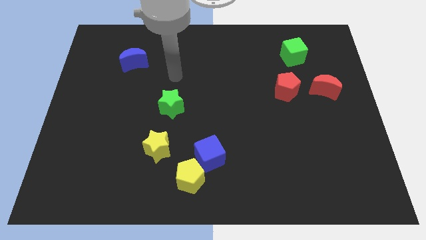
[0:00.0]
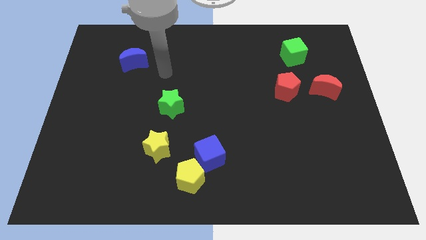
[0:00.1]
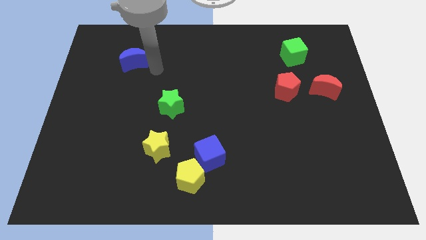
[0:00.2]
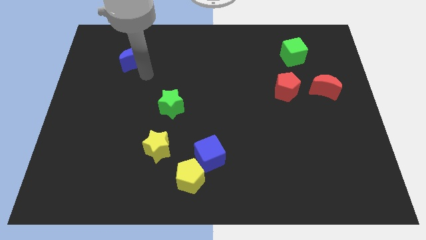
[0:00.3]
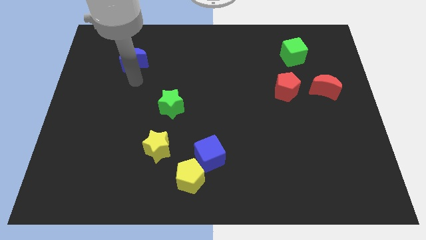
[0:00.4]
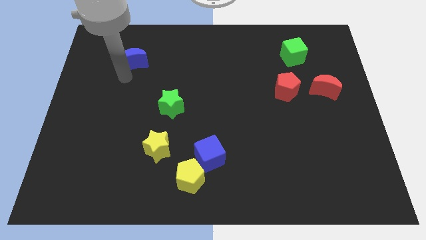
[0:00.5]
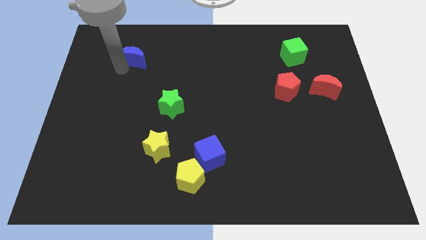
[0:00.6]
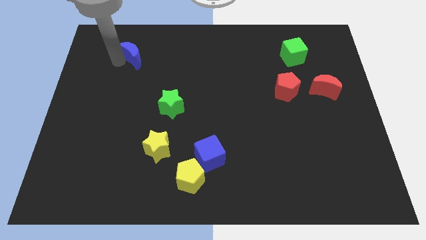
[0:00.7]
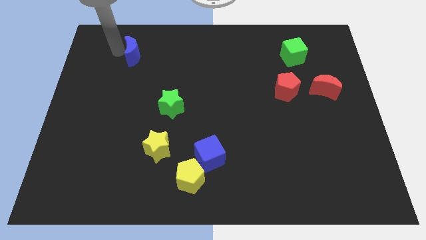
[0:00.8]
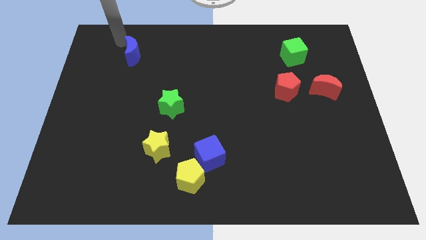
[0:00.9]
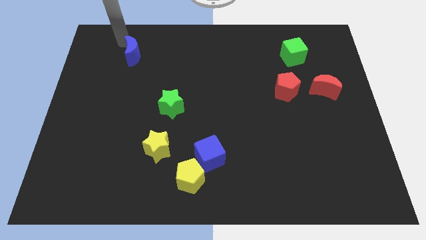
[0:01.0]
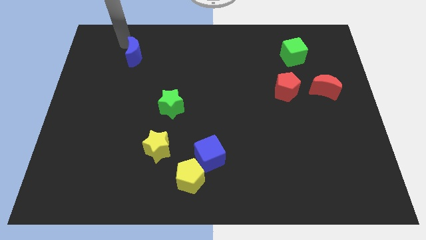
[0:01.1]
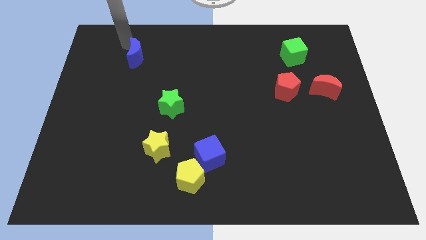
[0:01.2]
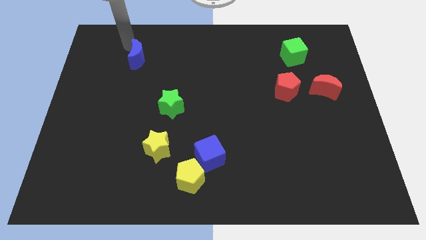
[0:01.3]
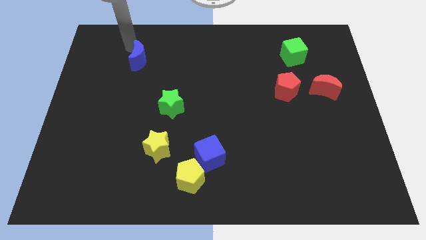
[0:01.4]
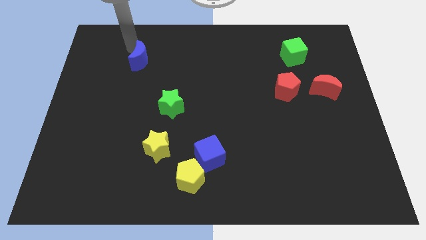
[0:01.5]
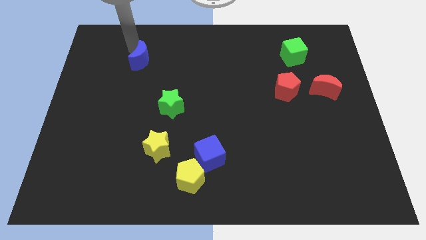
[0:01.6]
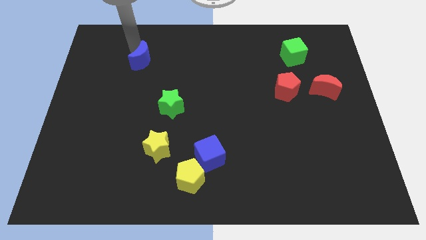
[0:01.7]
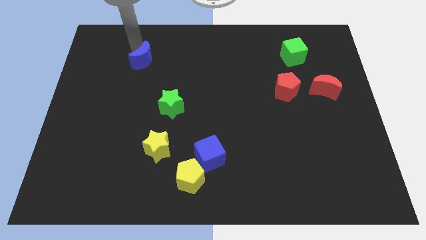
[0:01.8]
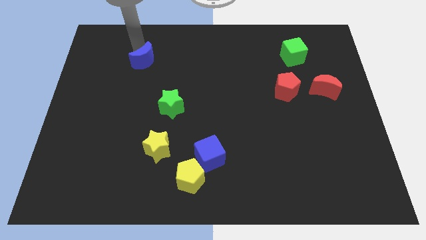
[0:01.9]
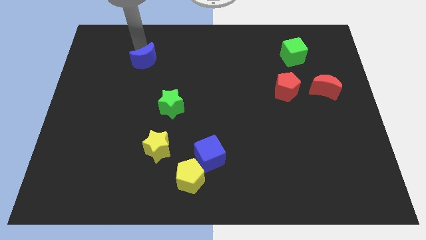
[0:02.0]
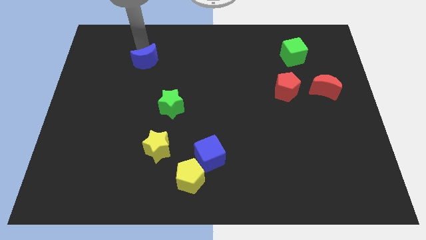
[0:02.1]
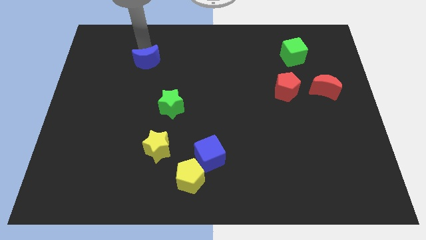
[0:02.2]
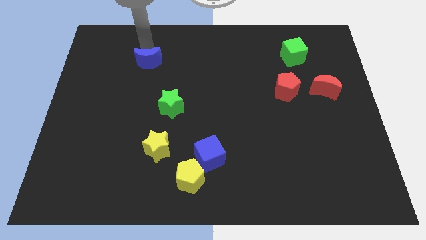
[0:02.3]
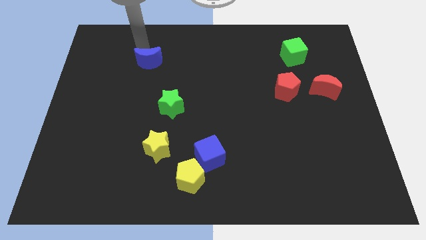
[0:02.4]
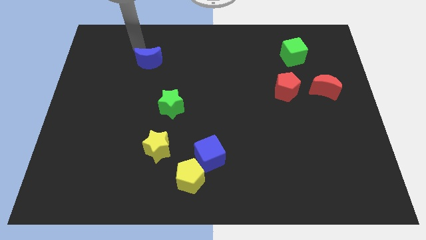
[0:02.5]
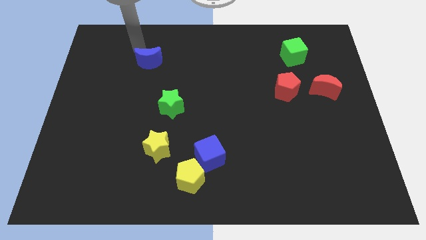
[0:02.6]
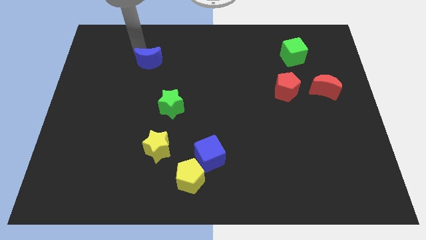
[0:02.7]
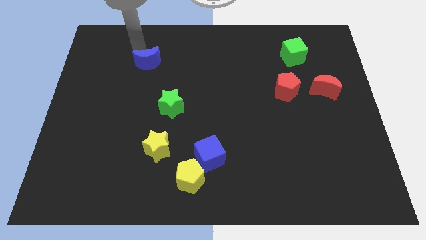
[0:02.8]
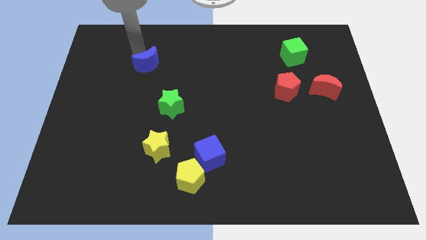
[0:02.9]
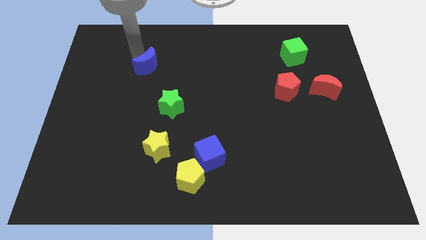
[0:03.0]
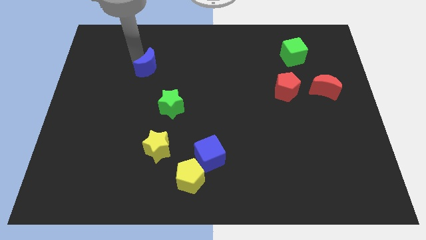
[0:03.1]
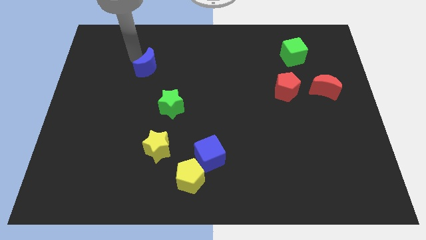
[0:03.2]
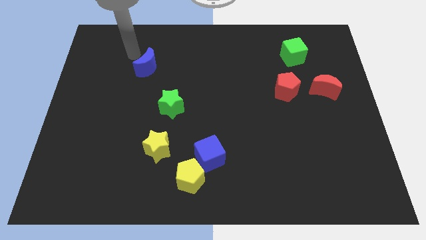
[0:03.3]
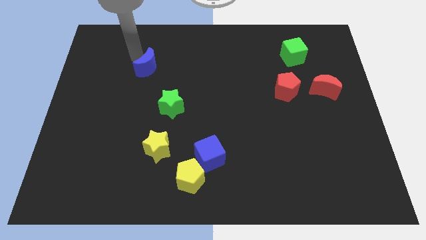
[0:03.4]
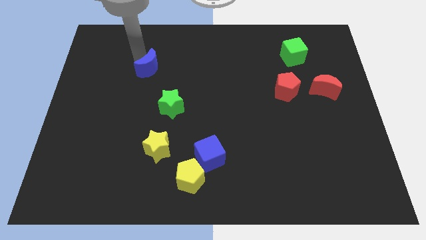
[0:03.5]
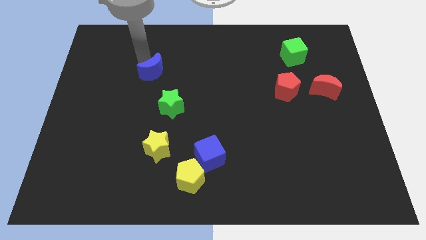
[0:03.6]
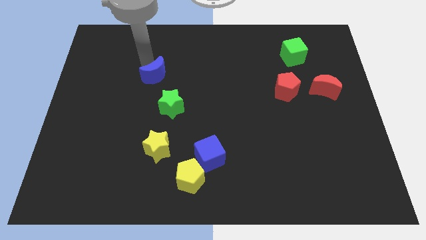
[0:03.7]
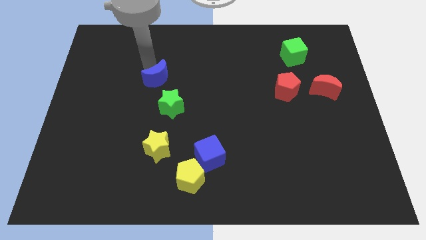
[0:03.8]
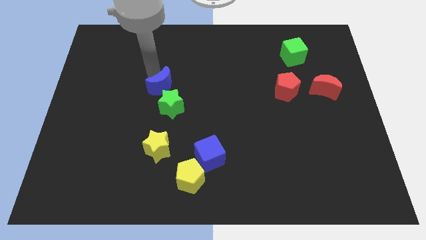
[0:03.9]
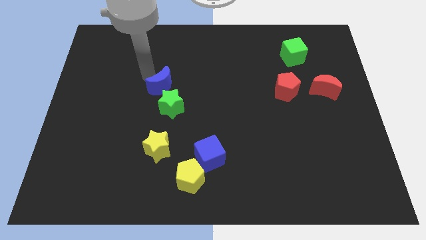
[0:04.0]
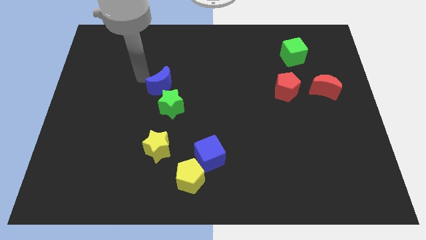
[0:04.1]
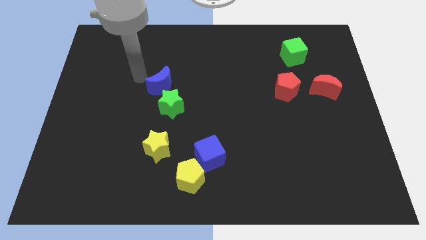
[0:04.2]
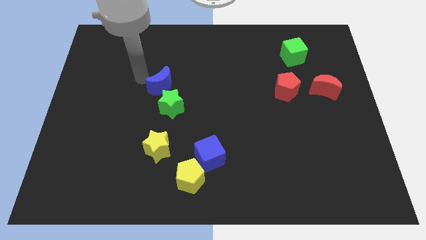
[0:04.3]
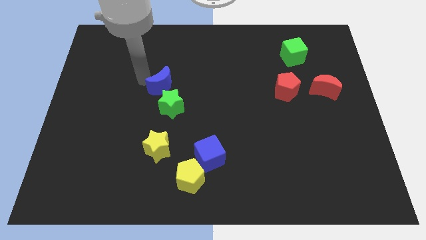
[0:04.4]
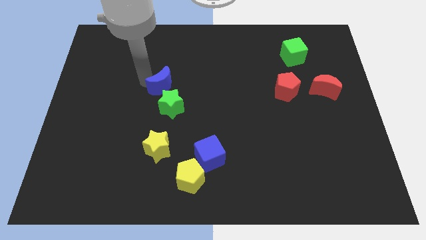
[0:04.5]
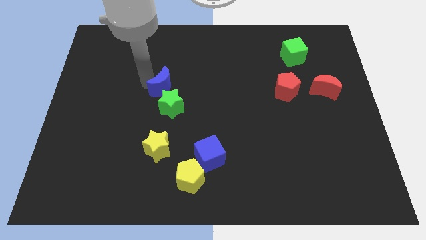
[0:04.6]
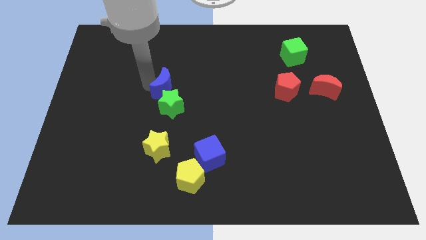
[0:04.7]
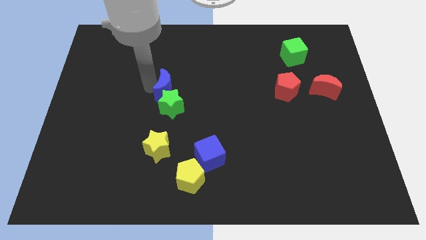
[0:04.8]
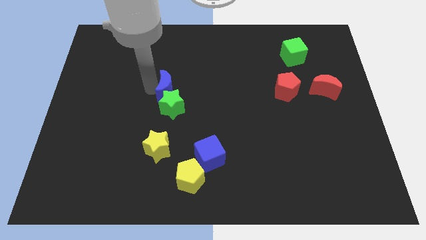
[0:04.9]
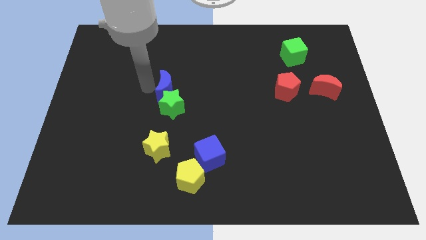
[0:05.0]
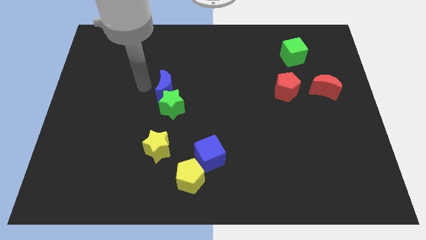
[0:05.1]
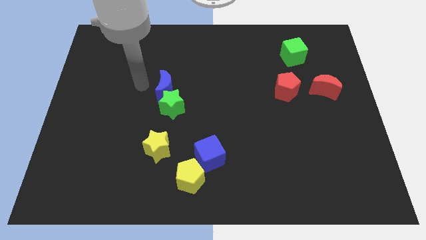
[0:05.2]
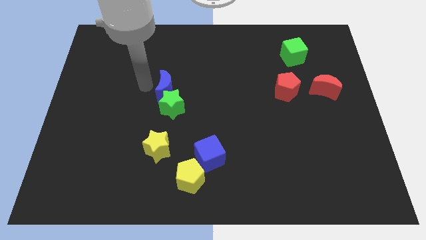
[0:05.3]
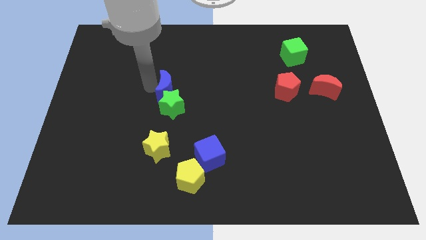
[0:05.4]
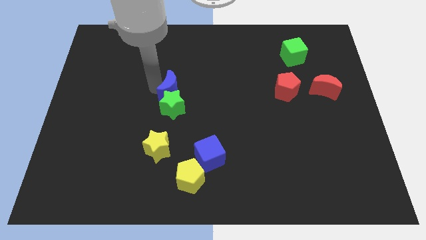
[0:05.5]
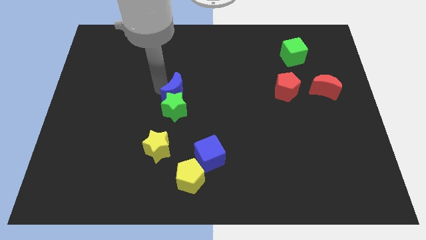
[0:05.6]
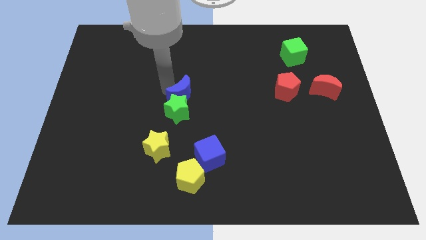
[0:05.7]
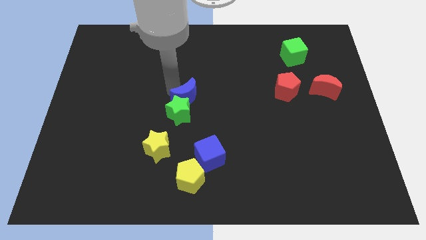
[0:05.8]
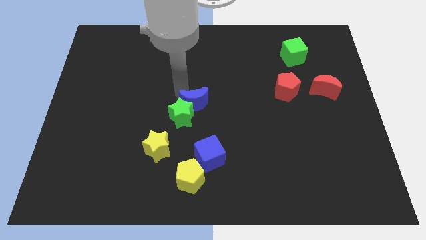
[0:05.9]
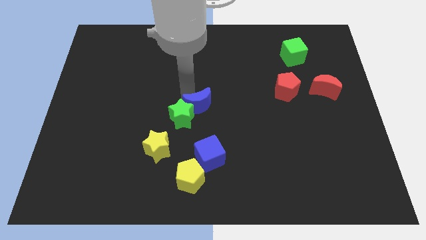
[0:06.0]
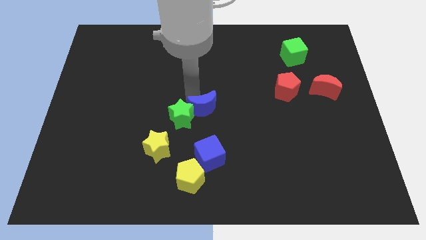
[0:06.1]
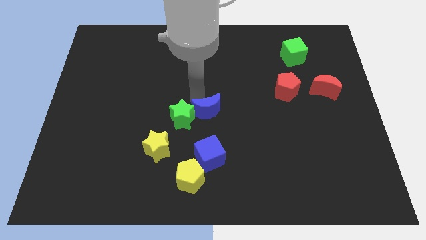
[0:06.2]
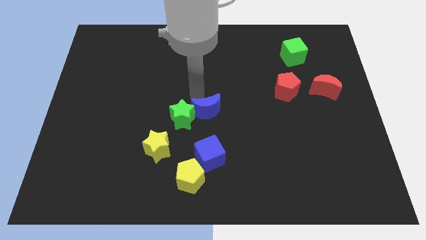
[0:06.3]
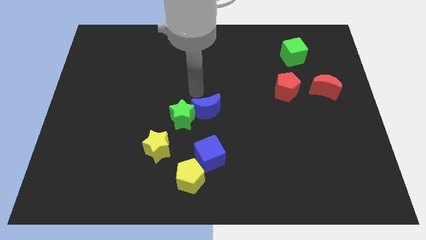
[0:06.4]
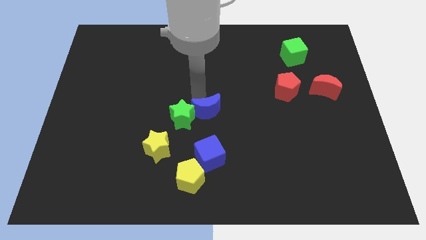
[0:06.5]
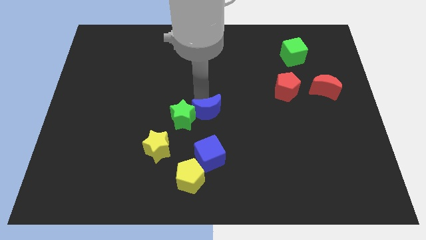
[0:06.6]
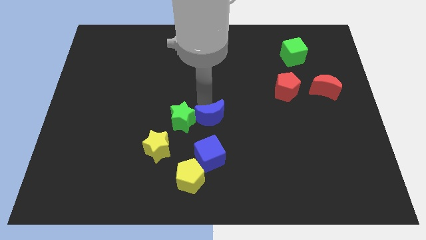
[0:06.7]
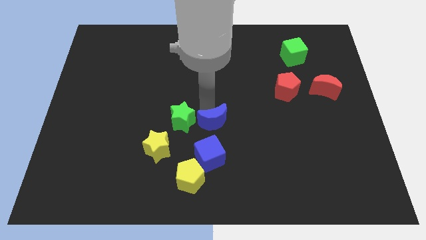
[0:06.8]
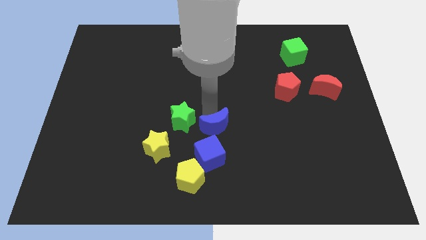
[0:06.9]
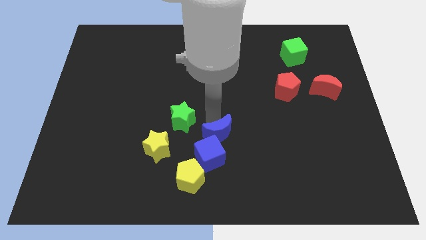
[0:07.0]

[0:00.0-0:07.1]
move the blue moon to the right of the yellow star
